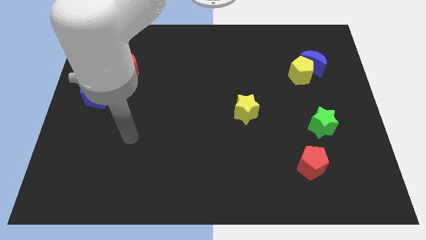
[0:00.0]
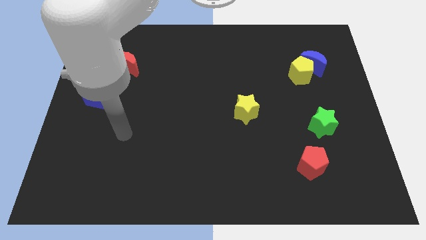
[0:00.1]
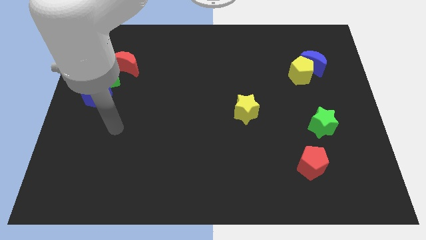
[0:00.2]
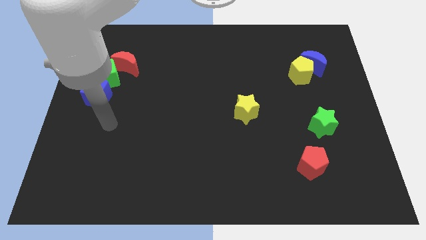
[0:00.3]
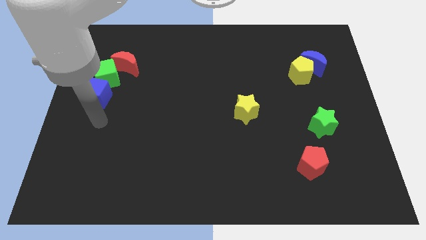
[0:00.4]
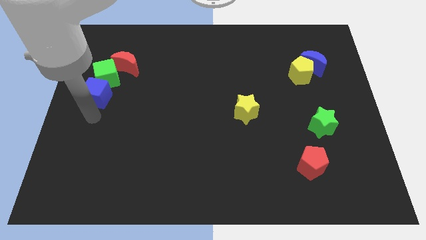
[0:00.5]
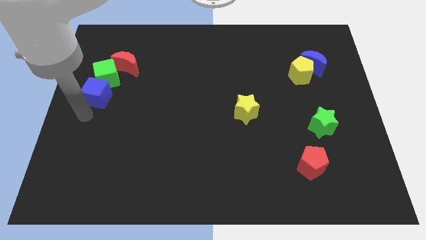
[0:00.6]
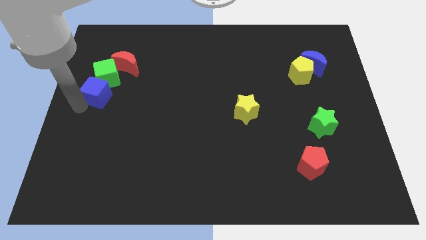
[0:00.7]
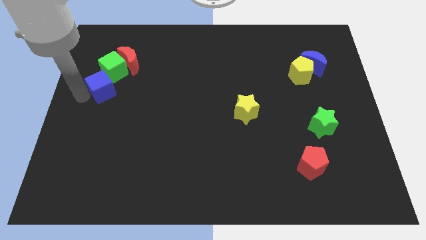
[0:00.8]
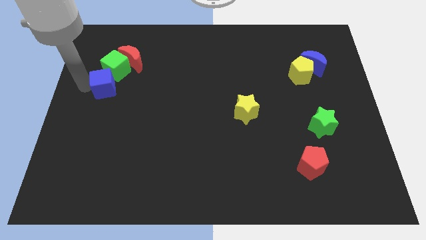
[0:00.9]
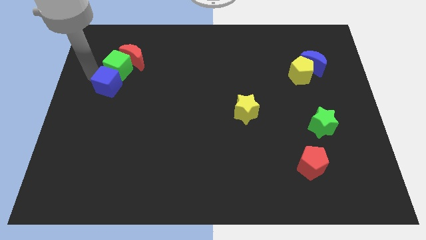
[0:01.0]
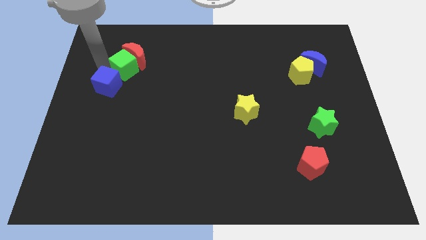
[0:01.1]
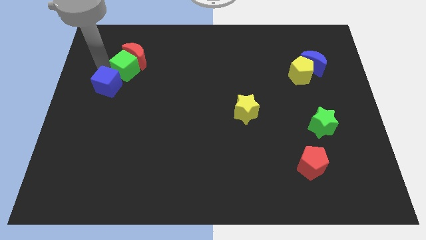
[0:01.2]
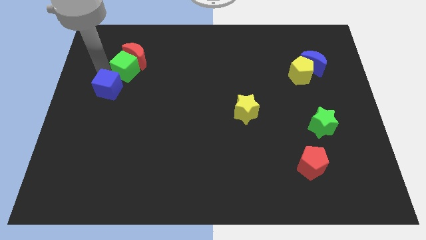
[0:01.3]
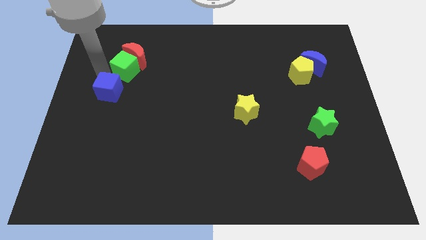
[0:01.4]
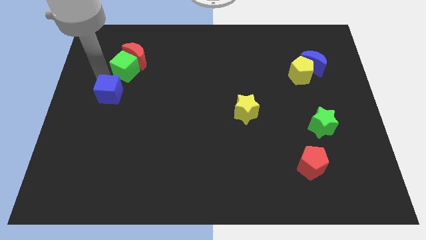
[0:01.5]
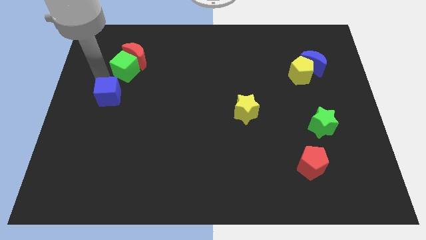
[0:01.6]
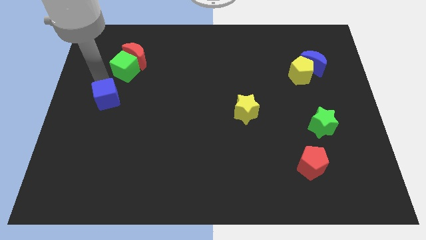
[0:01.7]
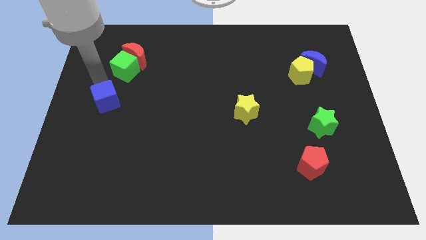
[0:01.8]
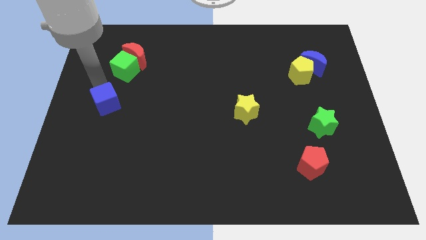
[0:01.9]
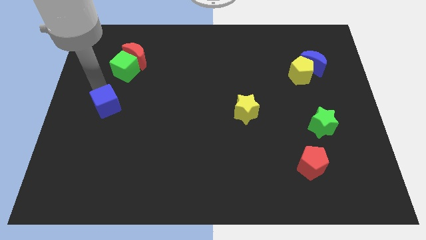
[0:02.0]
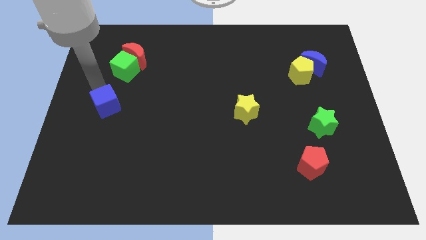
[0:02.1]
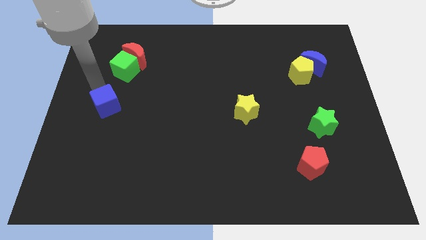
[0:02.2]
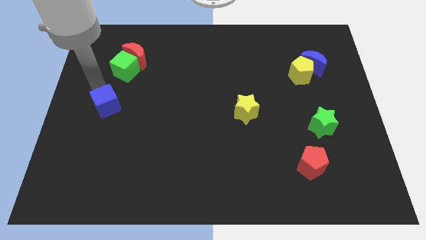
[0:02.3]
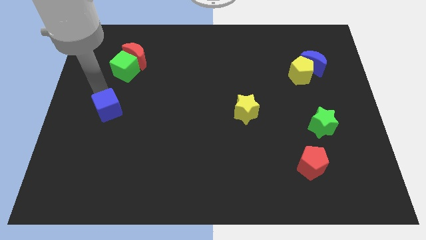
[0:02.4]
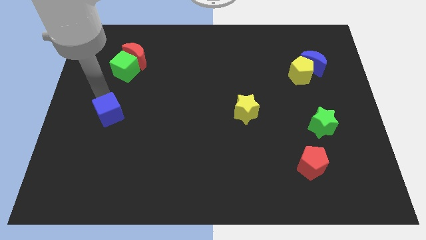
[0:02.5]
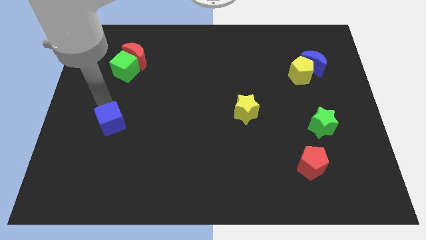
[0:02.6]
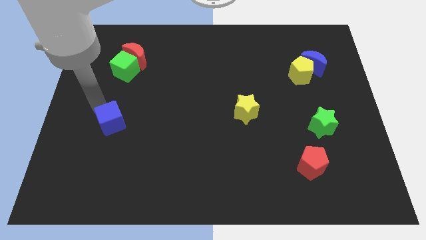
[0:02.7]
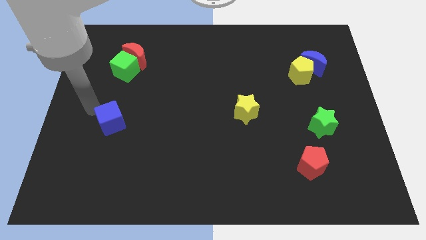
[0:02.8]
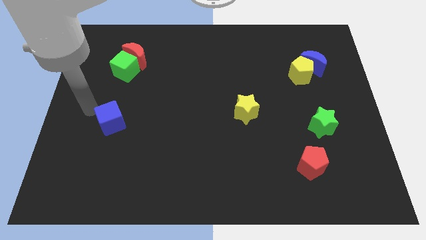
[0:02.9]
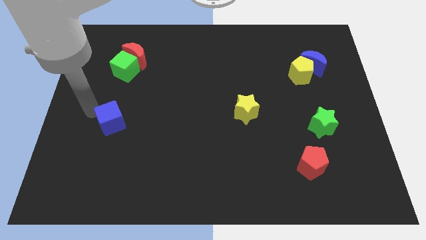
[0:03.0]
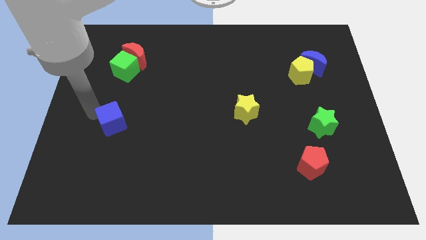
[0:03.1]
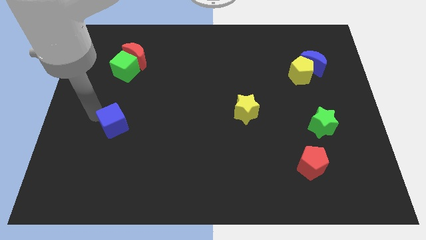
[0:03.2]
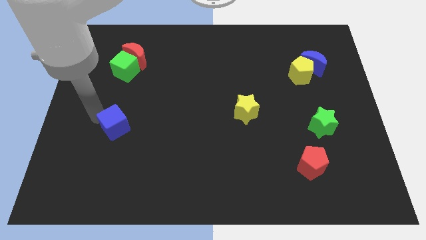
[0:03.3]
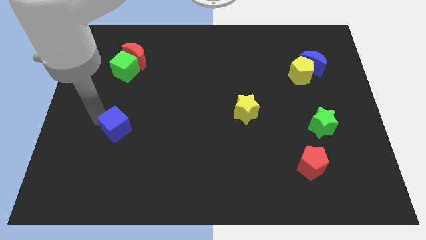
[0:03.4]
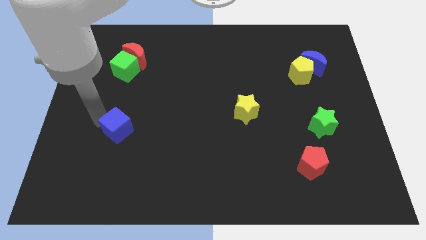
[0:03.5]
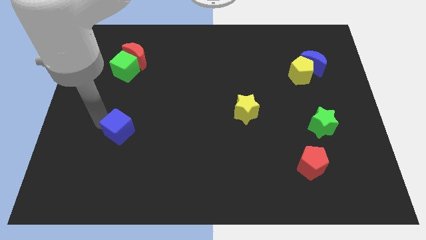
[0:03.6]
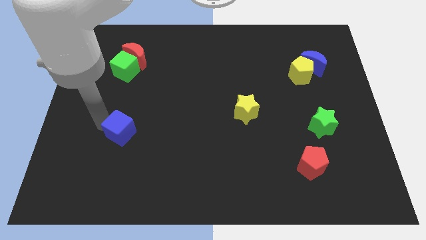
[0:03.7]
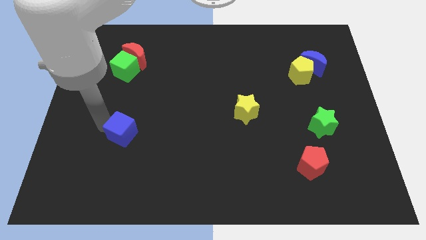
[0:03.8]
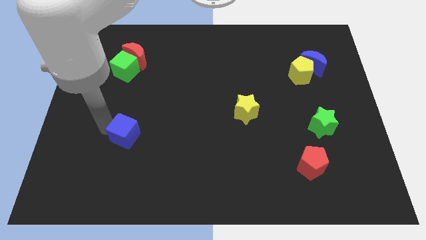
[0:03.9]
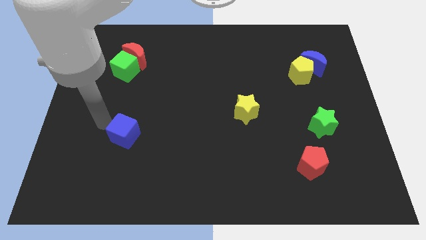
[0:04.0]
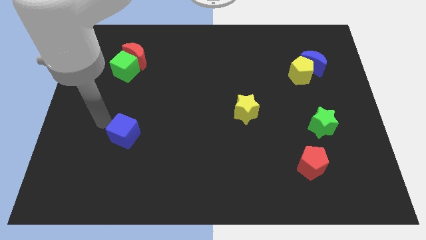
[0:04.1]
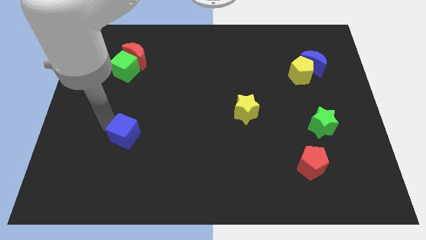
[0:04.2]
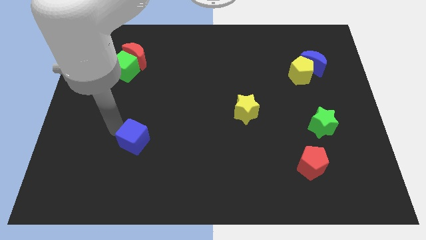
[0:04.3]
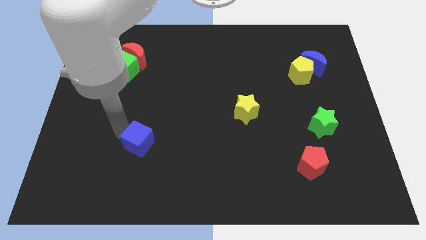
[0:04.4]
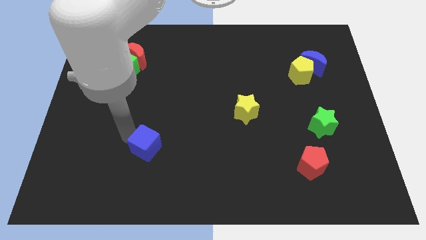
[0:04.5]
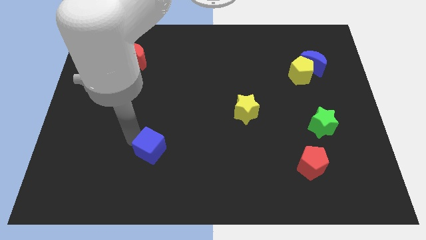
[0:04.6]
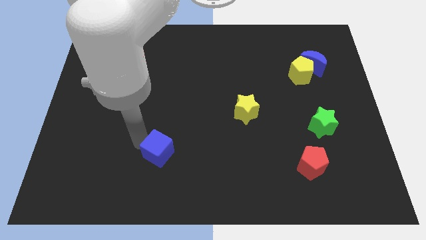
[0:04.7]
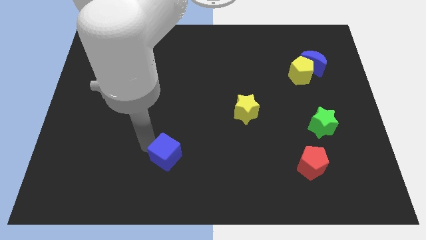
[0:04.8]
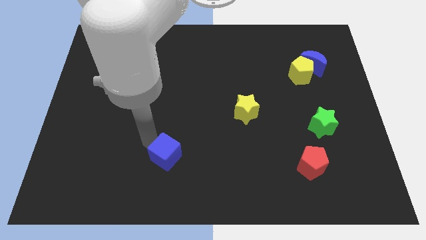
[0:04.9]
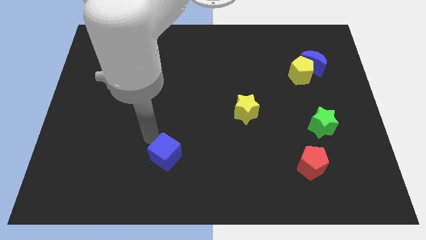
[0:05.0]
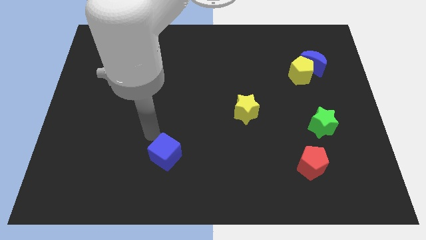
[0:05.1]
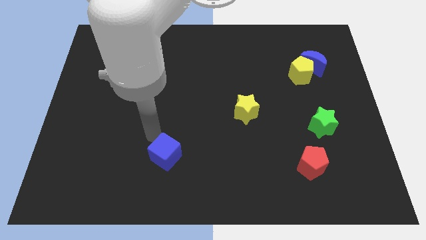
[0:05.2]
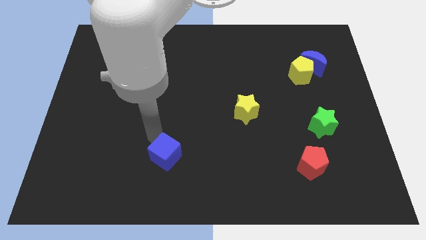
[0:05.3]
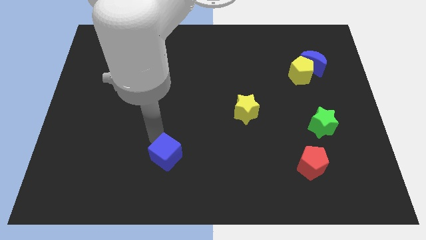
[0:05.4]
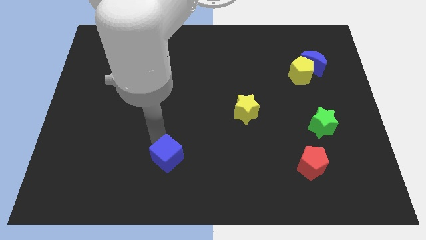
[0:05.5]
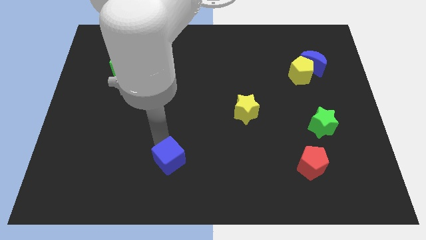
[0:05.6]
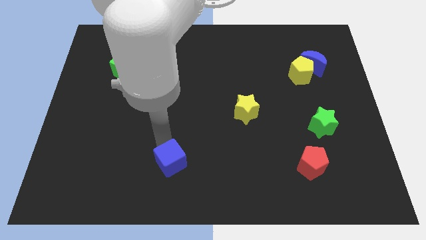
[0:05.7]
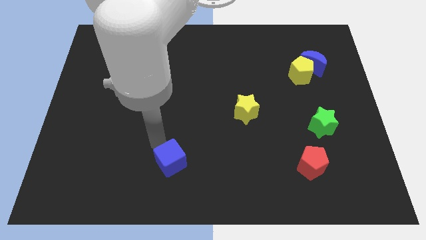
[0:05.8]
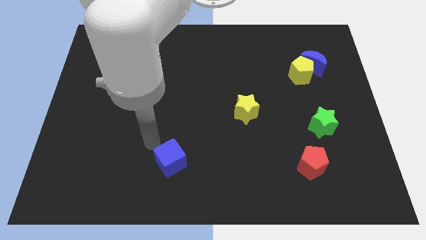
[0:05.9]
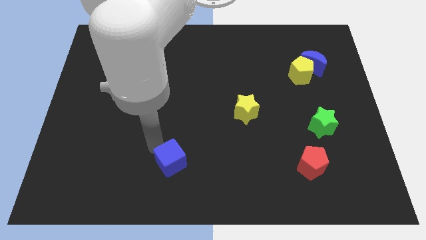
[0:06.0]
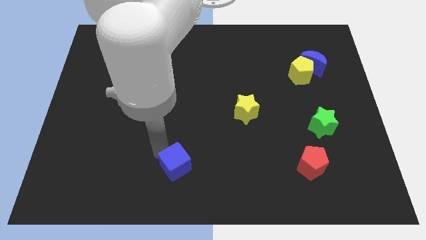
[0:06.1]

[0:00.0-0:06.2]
push the blue cube to the bottom side
